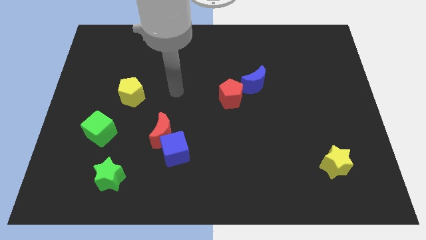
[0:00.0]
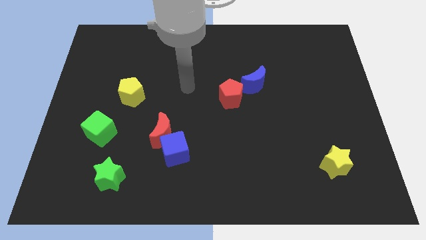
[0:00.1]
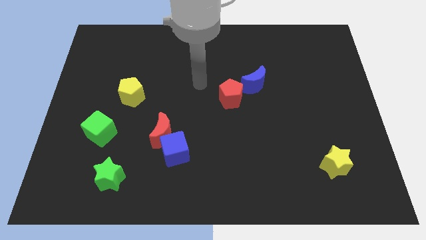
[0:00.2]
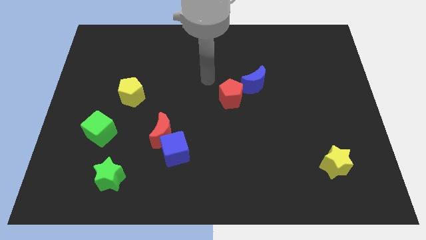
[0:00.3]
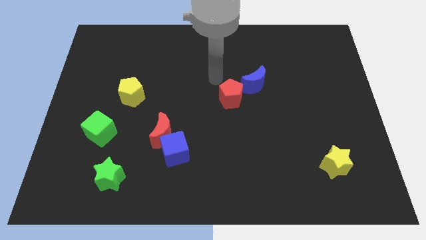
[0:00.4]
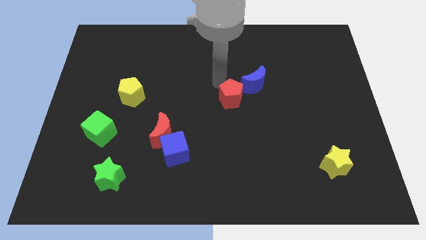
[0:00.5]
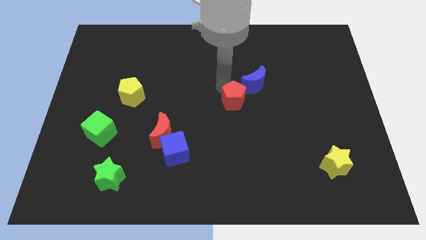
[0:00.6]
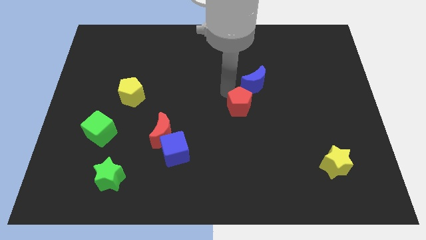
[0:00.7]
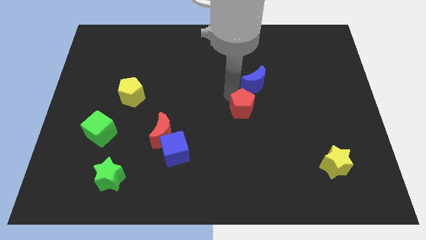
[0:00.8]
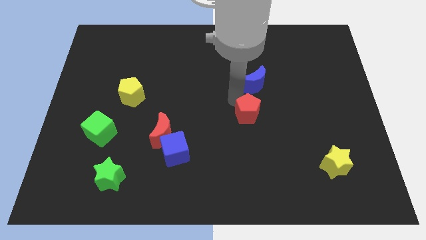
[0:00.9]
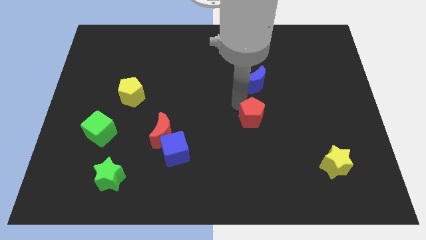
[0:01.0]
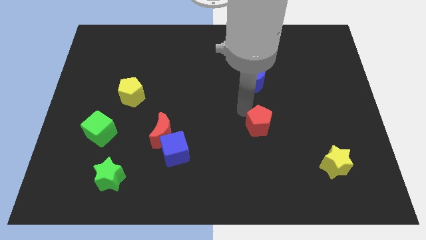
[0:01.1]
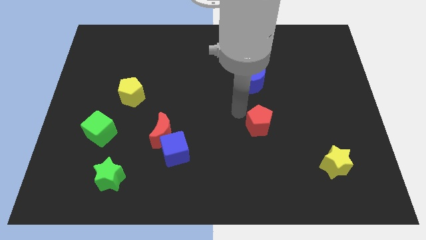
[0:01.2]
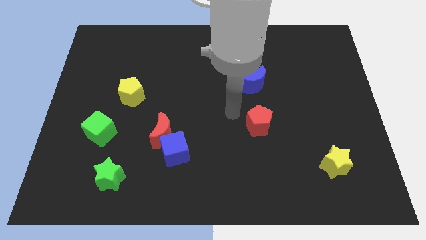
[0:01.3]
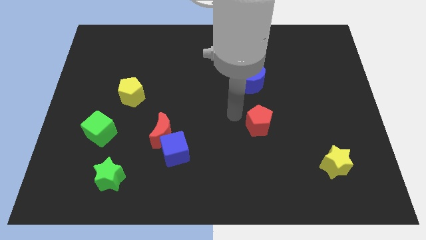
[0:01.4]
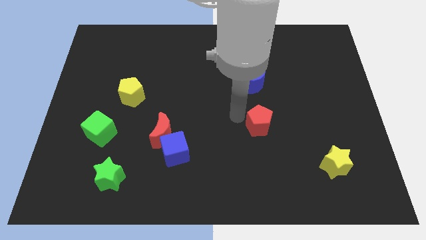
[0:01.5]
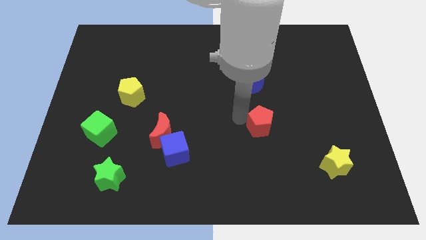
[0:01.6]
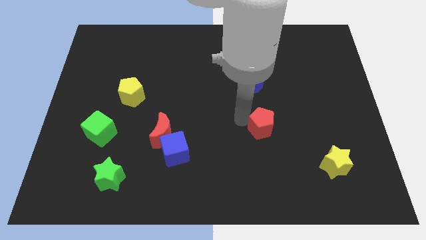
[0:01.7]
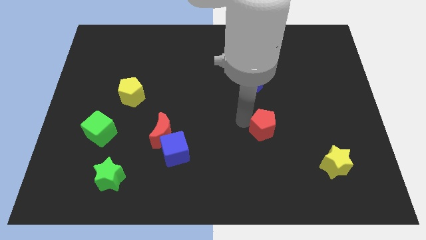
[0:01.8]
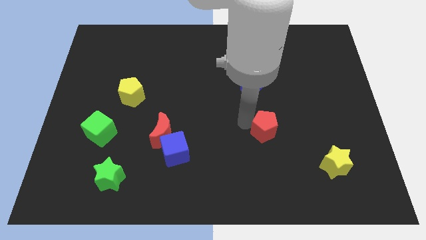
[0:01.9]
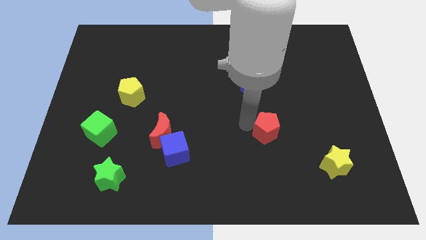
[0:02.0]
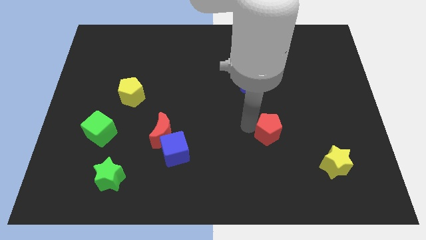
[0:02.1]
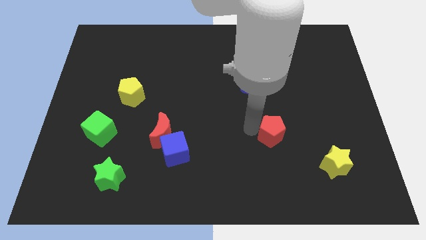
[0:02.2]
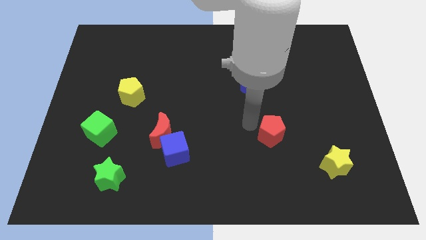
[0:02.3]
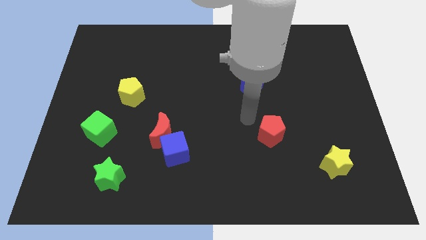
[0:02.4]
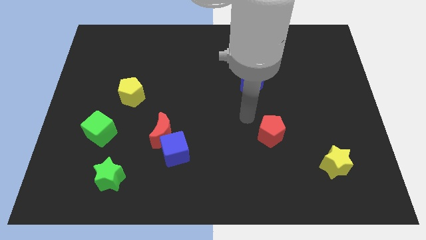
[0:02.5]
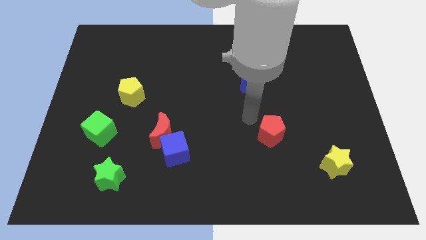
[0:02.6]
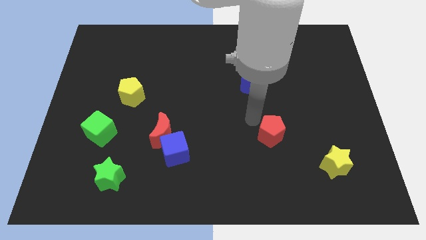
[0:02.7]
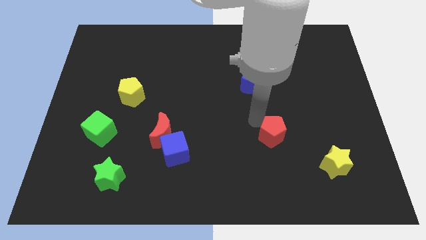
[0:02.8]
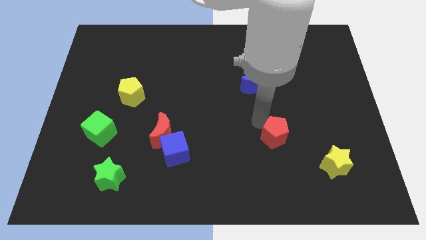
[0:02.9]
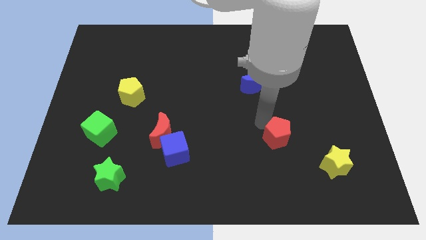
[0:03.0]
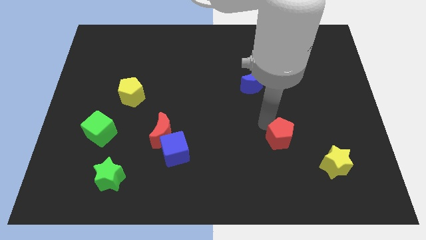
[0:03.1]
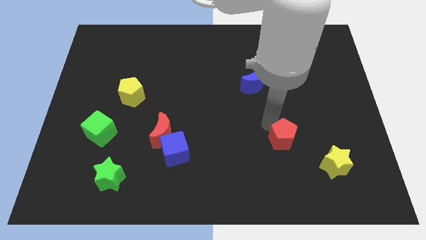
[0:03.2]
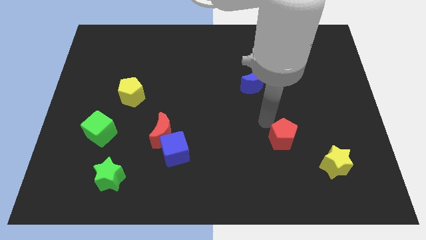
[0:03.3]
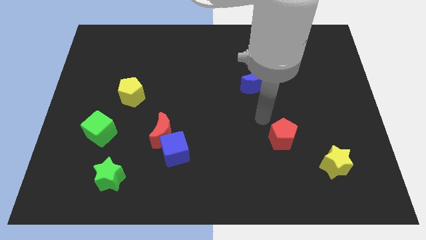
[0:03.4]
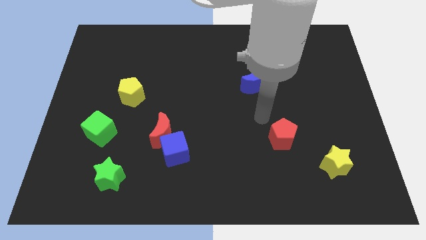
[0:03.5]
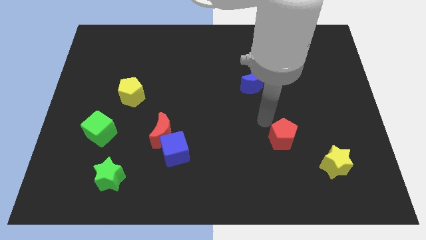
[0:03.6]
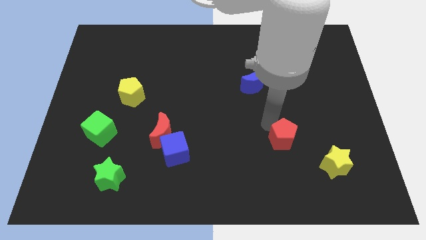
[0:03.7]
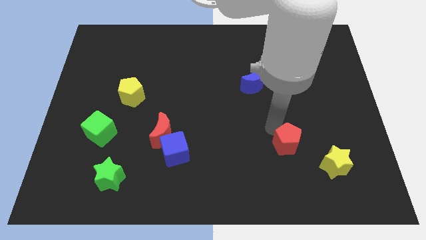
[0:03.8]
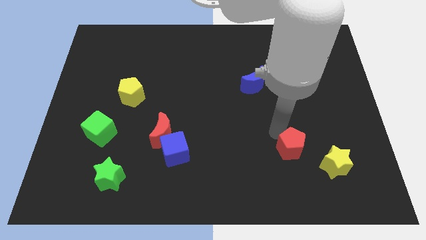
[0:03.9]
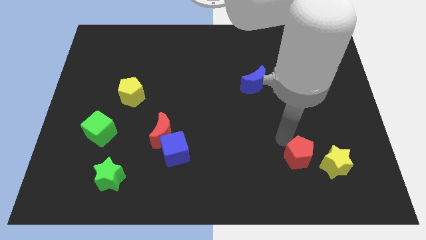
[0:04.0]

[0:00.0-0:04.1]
slide the red pentagon downwards and right

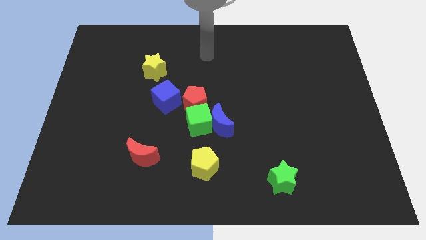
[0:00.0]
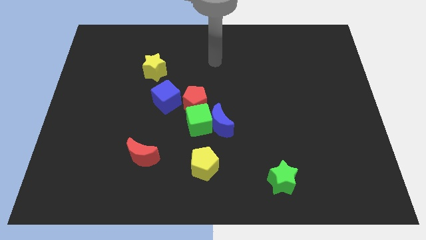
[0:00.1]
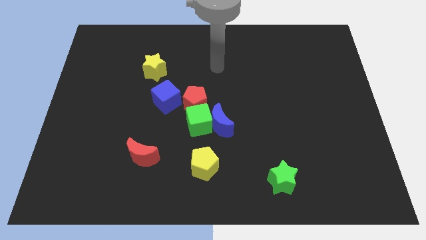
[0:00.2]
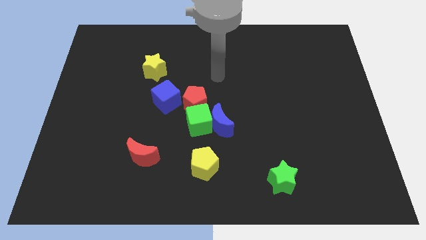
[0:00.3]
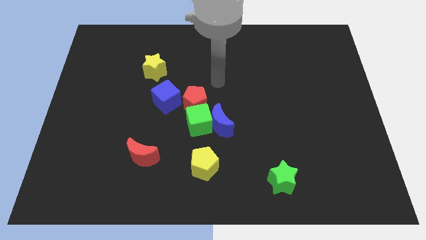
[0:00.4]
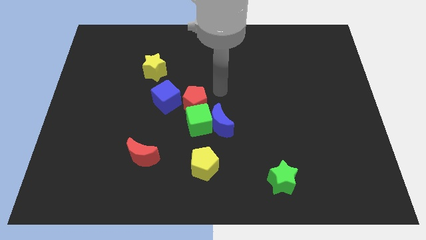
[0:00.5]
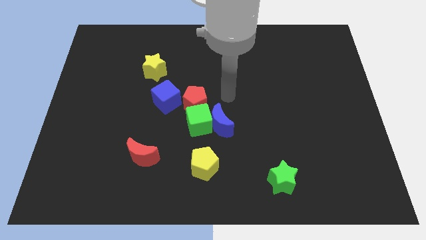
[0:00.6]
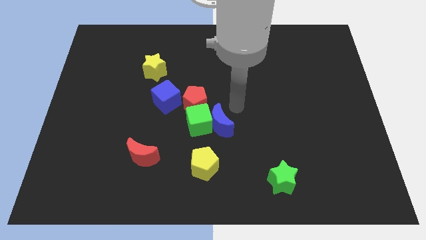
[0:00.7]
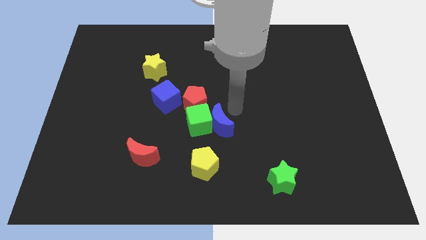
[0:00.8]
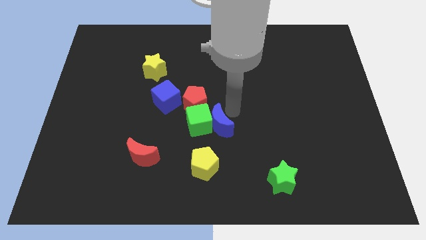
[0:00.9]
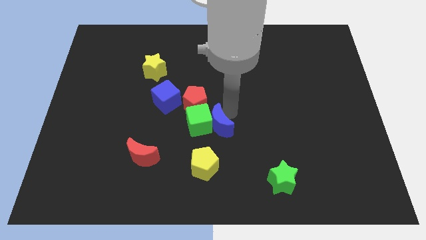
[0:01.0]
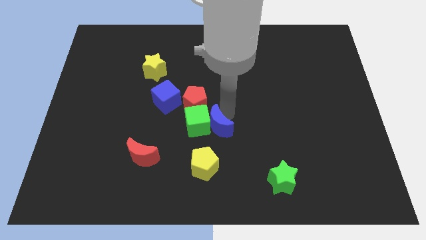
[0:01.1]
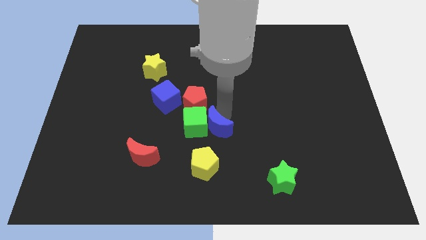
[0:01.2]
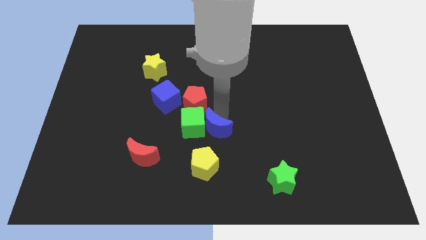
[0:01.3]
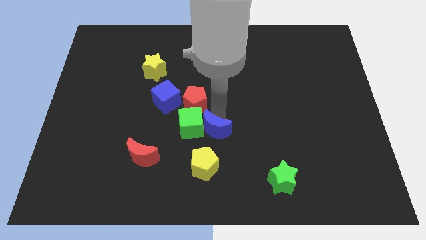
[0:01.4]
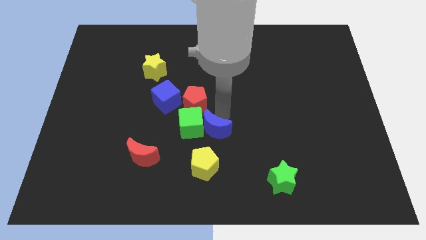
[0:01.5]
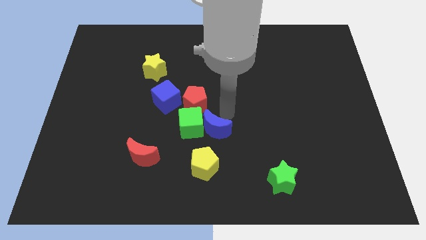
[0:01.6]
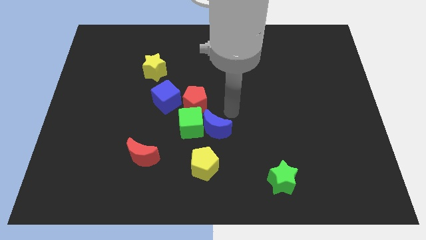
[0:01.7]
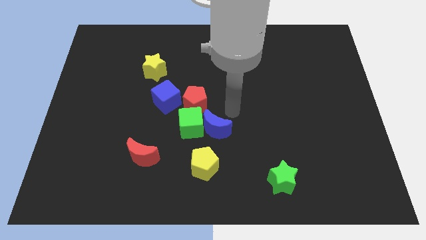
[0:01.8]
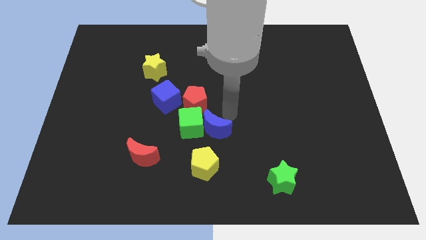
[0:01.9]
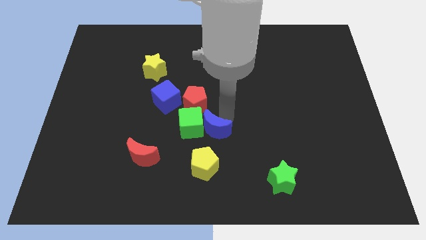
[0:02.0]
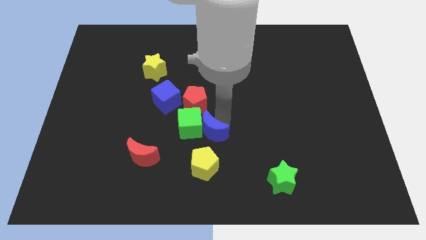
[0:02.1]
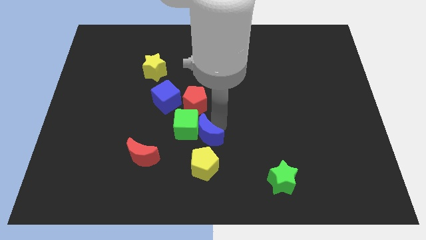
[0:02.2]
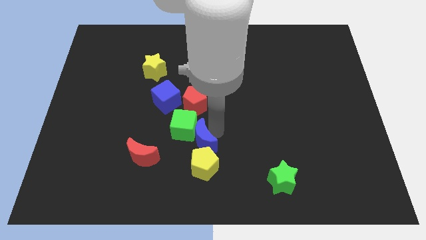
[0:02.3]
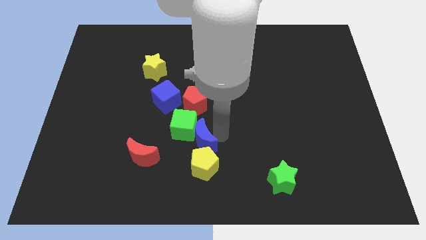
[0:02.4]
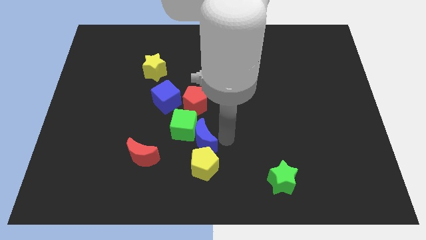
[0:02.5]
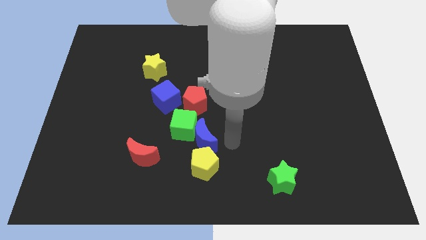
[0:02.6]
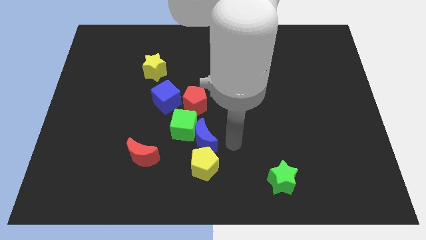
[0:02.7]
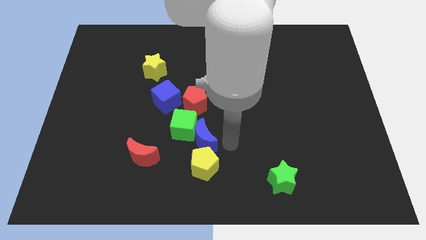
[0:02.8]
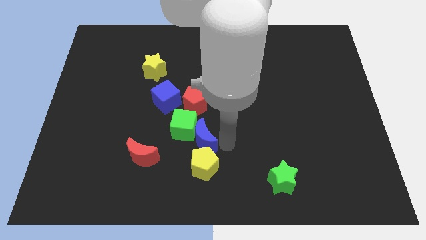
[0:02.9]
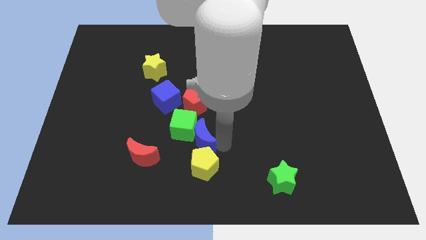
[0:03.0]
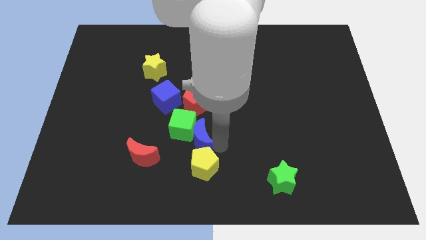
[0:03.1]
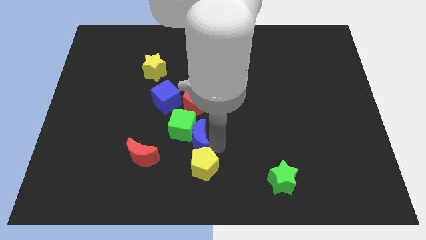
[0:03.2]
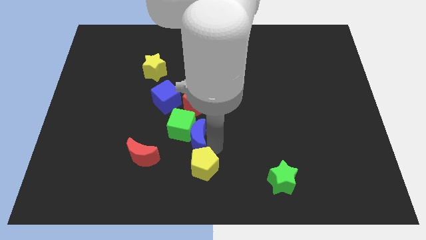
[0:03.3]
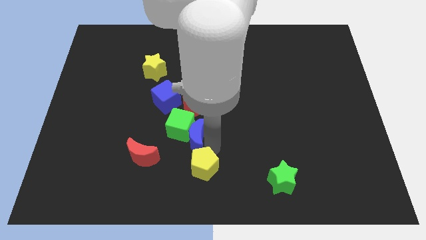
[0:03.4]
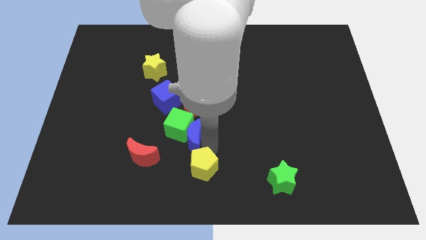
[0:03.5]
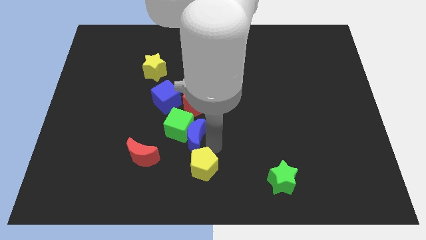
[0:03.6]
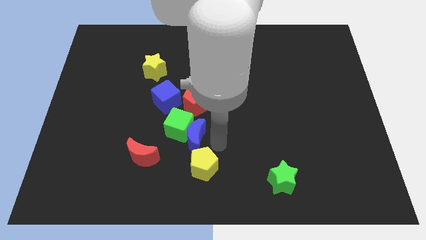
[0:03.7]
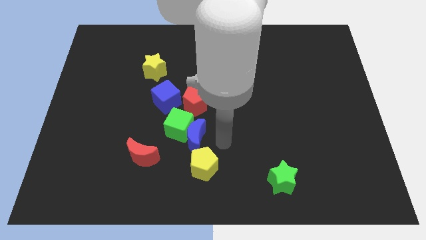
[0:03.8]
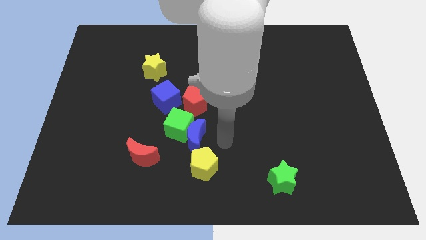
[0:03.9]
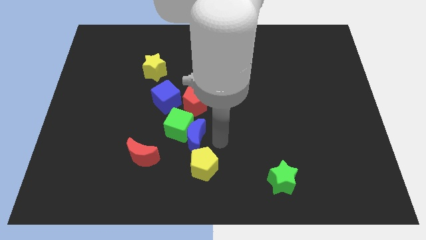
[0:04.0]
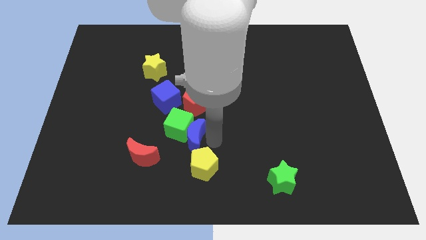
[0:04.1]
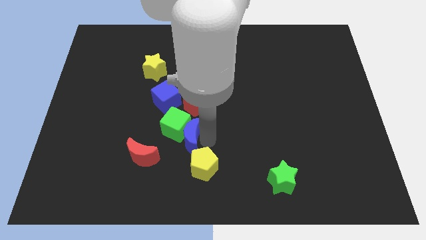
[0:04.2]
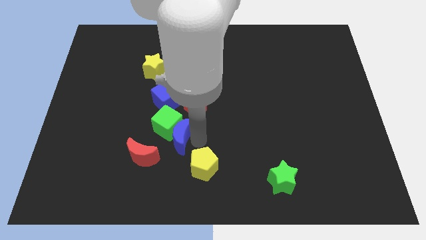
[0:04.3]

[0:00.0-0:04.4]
slide the blue moon a little bit to the left
